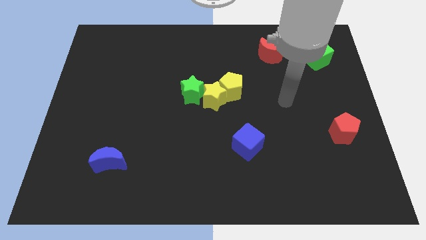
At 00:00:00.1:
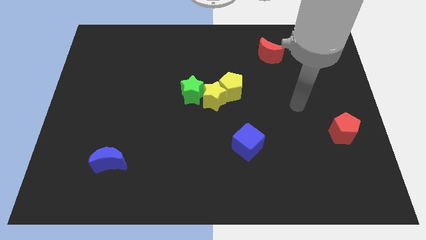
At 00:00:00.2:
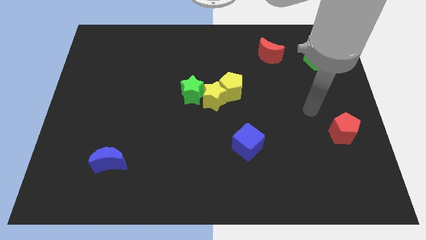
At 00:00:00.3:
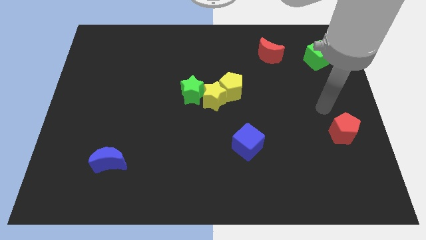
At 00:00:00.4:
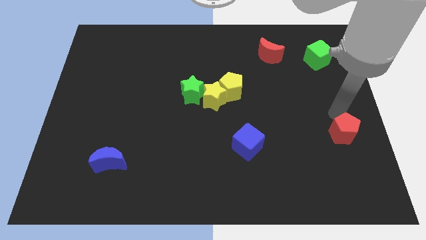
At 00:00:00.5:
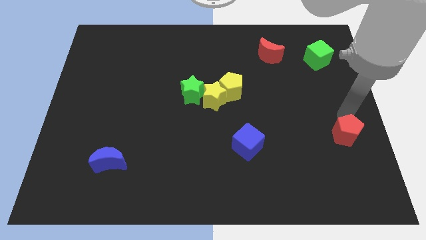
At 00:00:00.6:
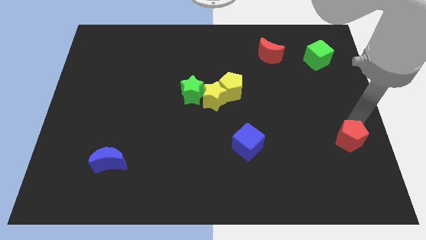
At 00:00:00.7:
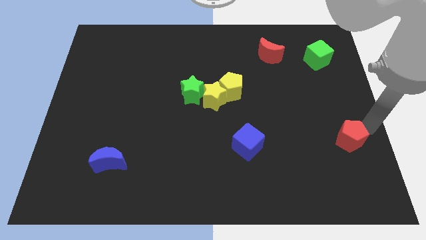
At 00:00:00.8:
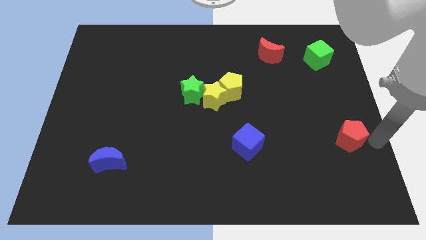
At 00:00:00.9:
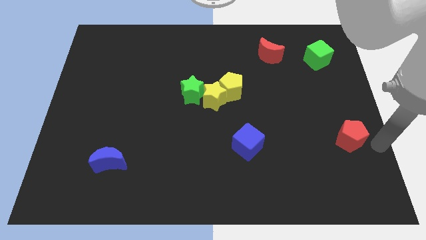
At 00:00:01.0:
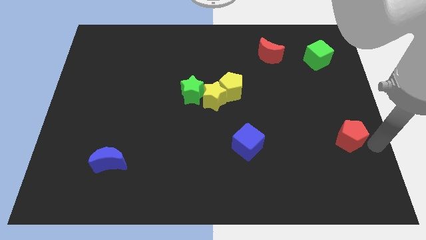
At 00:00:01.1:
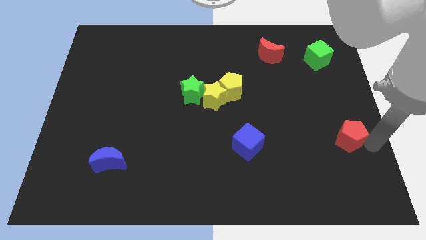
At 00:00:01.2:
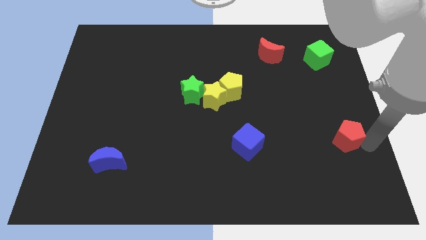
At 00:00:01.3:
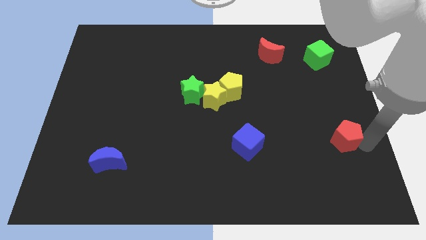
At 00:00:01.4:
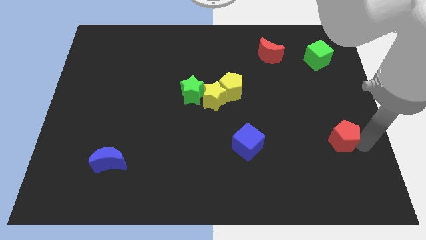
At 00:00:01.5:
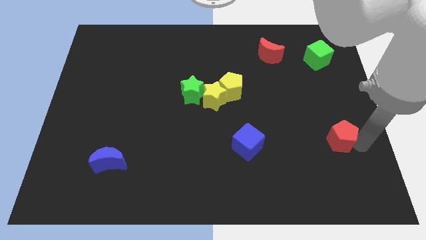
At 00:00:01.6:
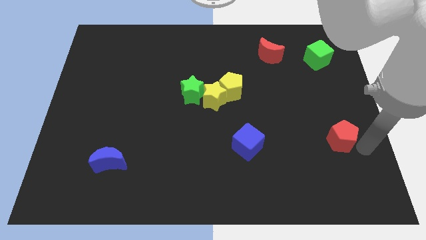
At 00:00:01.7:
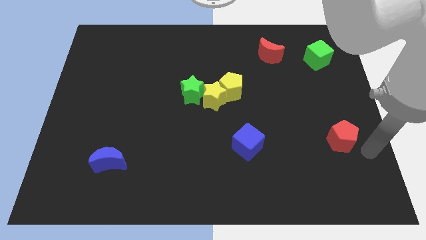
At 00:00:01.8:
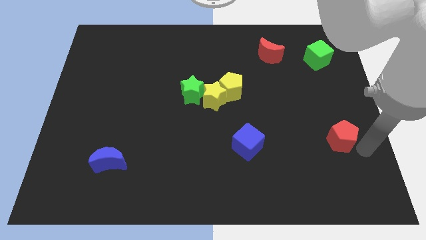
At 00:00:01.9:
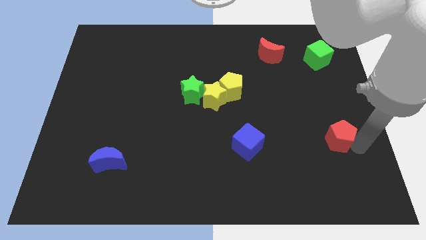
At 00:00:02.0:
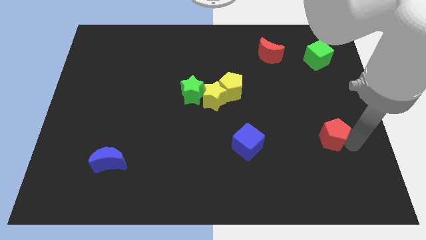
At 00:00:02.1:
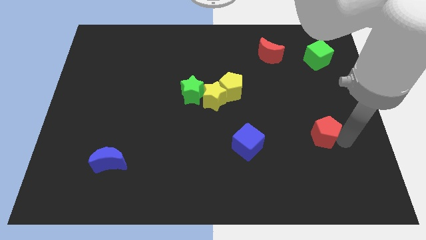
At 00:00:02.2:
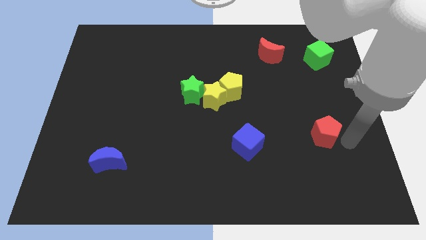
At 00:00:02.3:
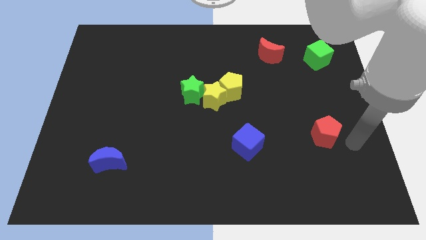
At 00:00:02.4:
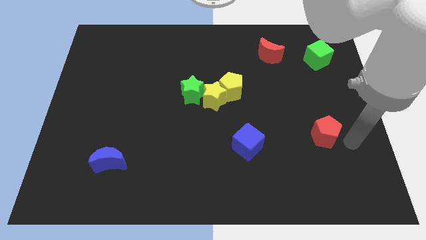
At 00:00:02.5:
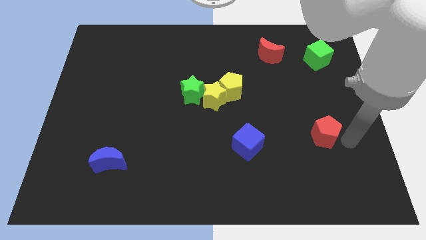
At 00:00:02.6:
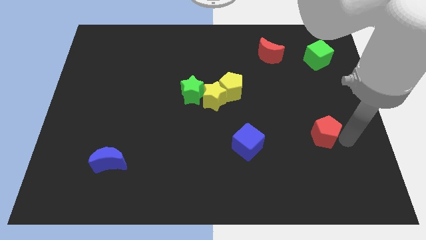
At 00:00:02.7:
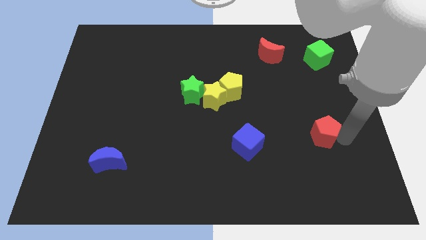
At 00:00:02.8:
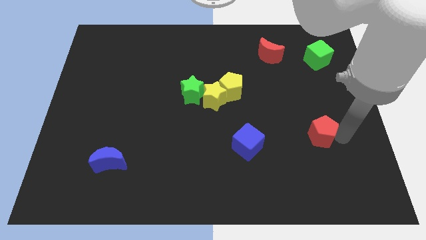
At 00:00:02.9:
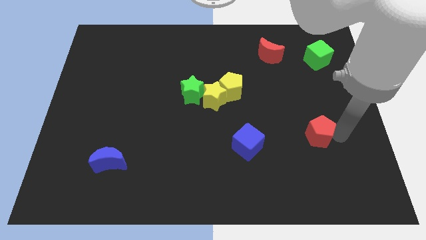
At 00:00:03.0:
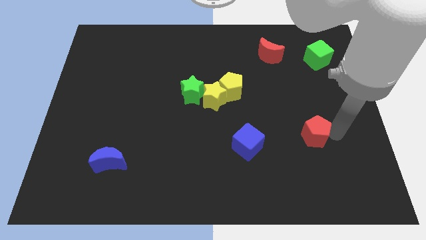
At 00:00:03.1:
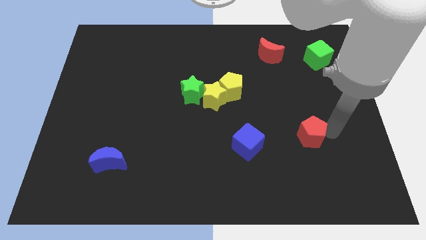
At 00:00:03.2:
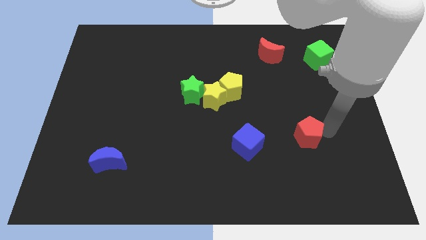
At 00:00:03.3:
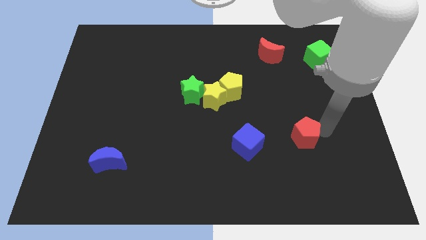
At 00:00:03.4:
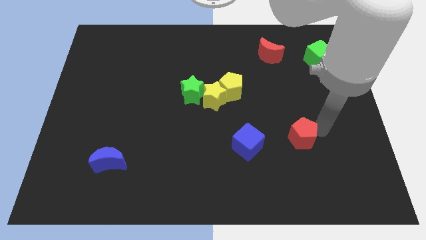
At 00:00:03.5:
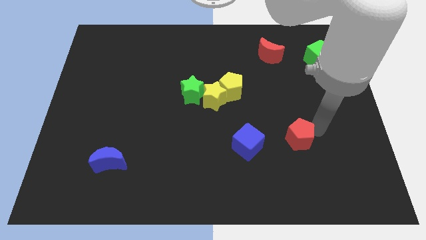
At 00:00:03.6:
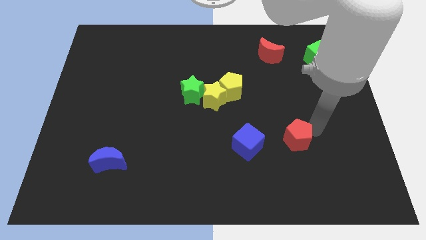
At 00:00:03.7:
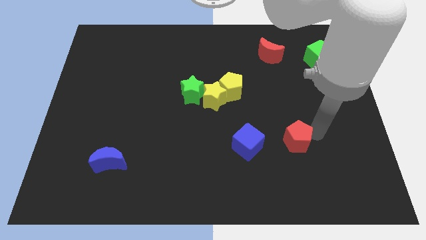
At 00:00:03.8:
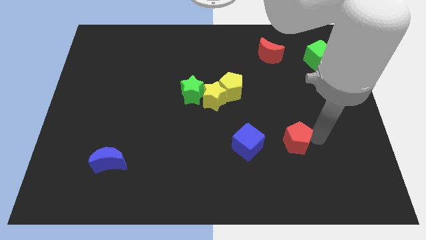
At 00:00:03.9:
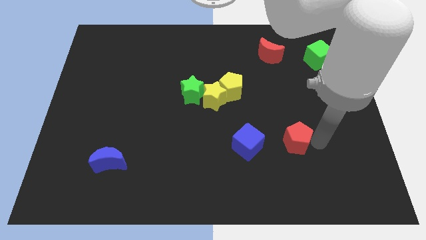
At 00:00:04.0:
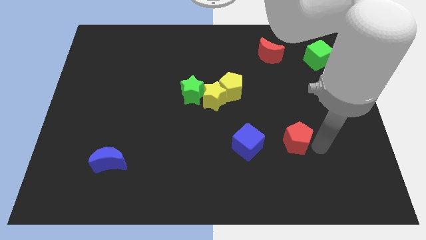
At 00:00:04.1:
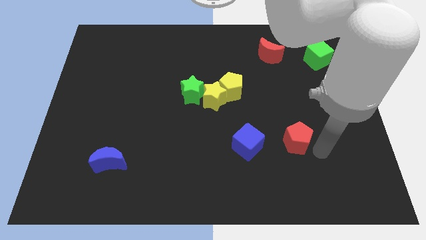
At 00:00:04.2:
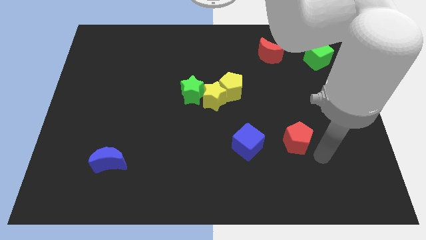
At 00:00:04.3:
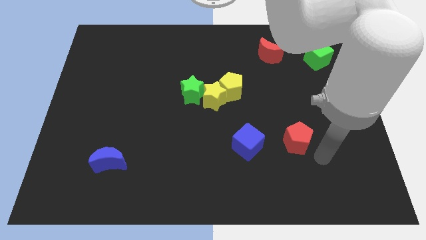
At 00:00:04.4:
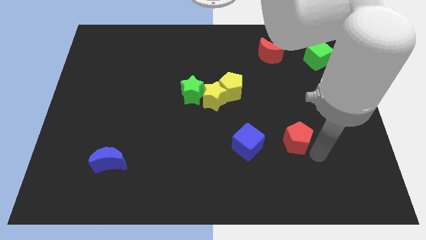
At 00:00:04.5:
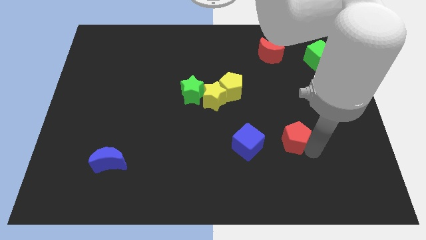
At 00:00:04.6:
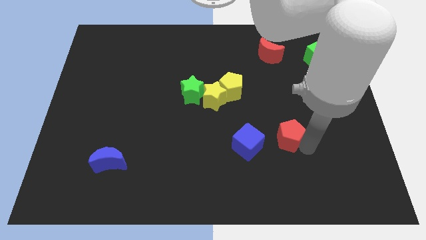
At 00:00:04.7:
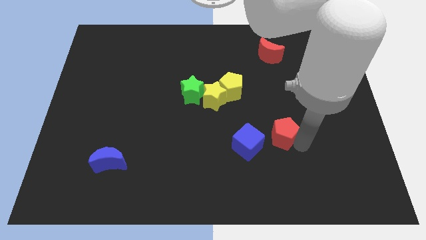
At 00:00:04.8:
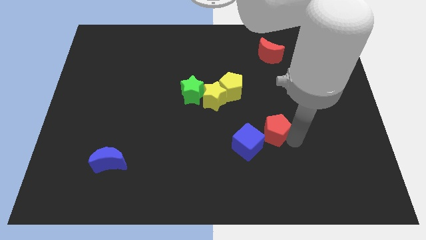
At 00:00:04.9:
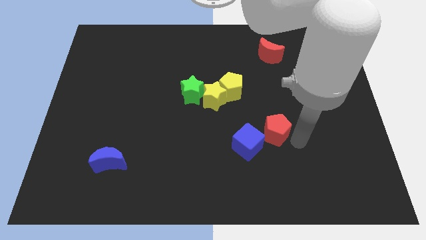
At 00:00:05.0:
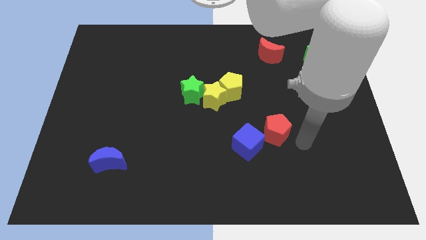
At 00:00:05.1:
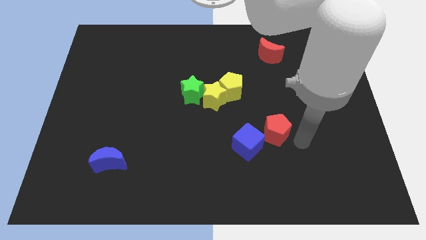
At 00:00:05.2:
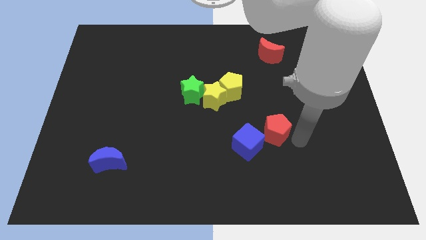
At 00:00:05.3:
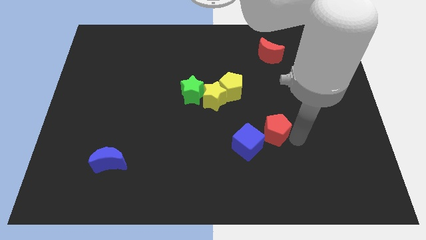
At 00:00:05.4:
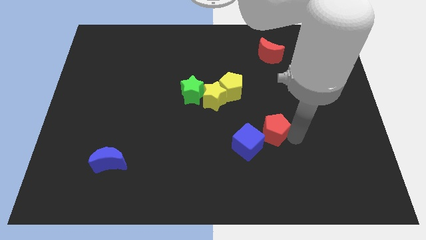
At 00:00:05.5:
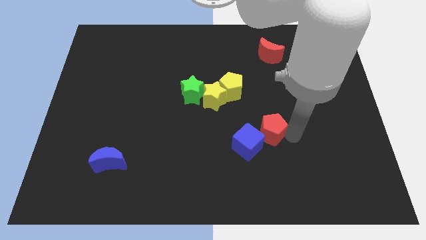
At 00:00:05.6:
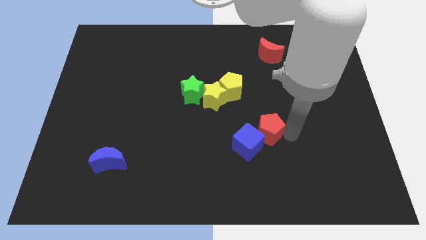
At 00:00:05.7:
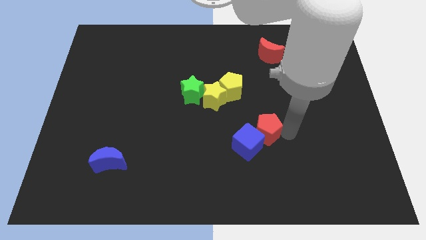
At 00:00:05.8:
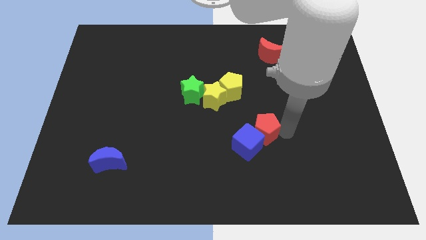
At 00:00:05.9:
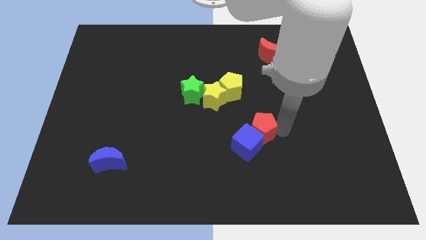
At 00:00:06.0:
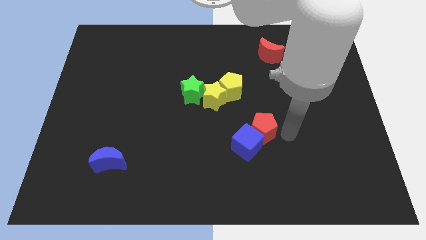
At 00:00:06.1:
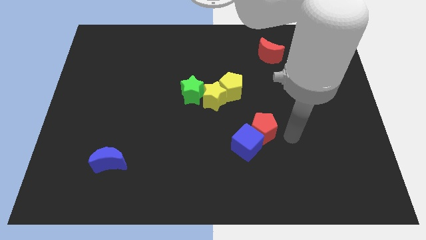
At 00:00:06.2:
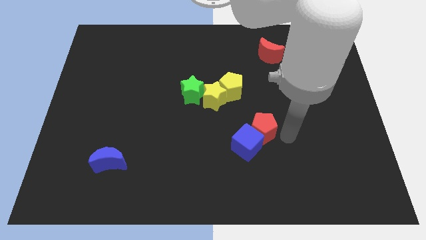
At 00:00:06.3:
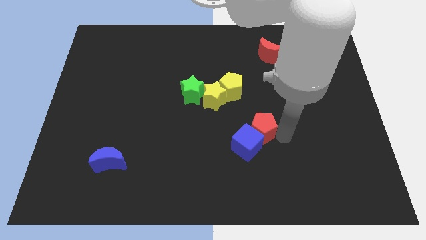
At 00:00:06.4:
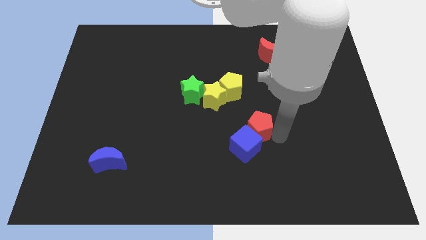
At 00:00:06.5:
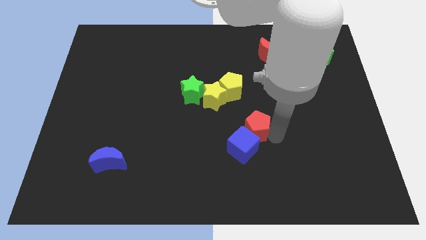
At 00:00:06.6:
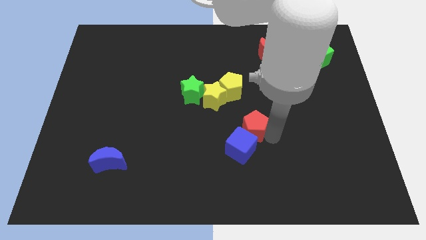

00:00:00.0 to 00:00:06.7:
move the red pentagon left

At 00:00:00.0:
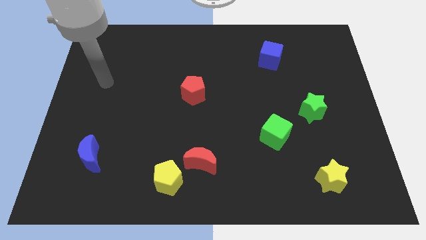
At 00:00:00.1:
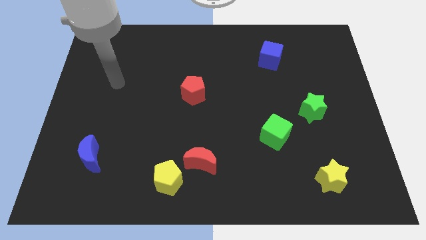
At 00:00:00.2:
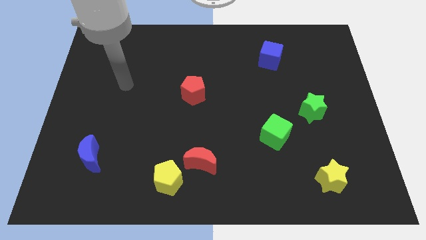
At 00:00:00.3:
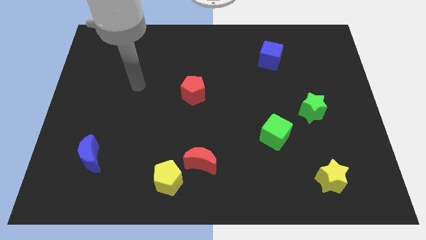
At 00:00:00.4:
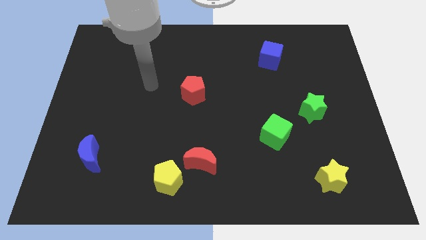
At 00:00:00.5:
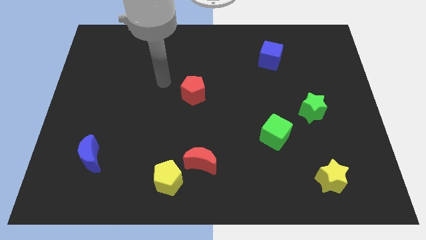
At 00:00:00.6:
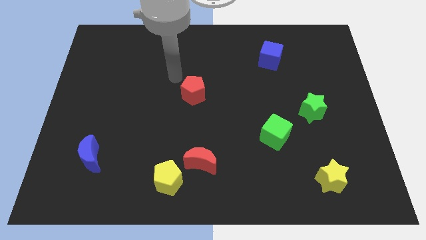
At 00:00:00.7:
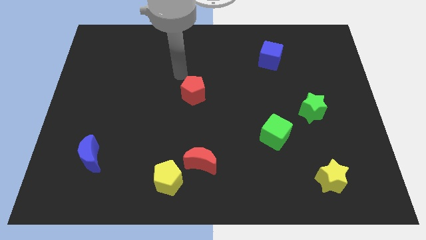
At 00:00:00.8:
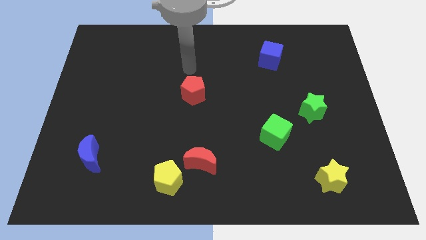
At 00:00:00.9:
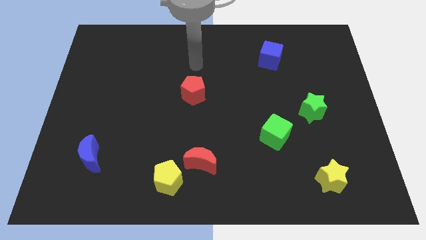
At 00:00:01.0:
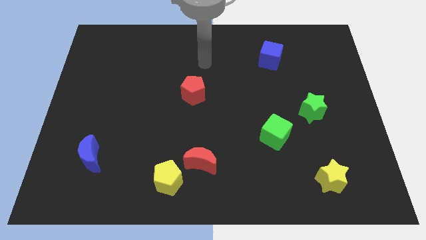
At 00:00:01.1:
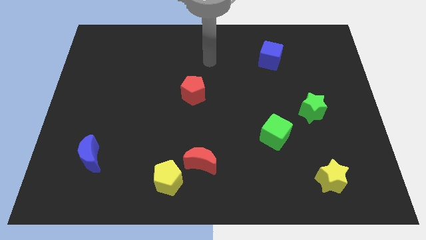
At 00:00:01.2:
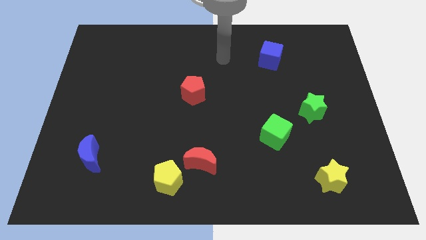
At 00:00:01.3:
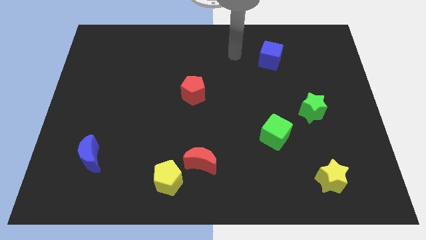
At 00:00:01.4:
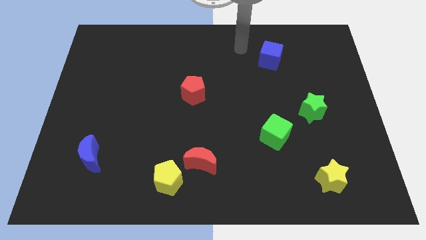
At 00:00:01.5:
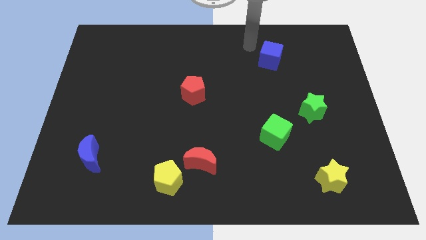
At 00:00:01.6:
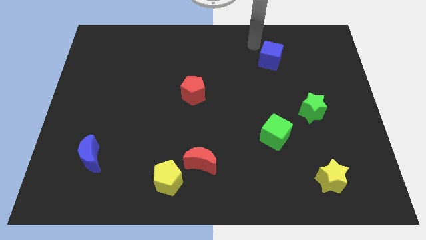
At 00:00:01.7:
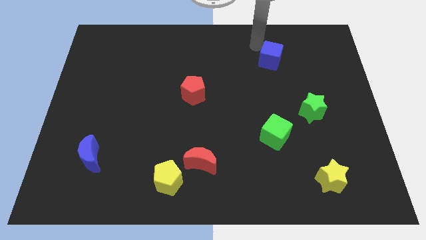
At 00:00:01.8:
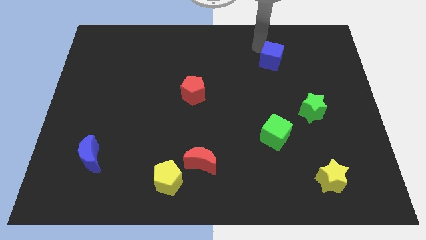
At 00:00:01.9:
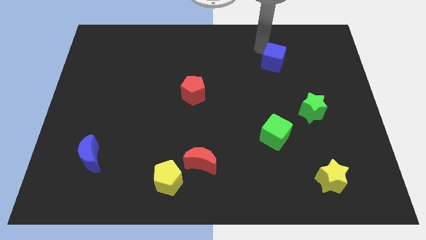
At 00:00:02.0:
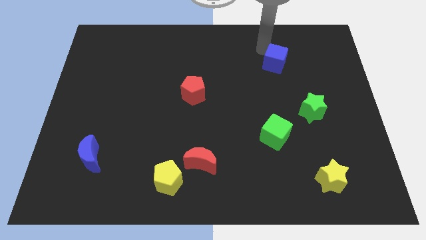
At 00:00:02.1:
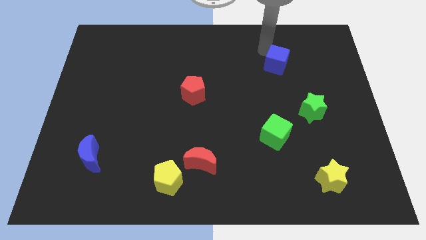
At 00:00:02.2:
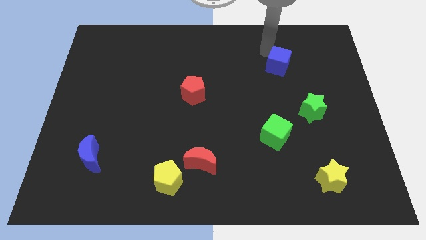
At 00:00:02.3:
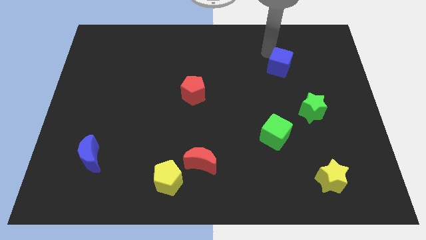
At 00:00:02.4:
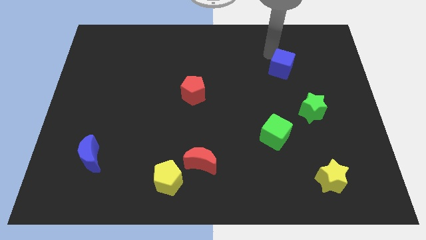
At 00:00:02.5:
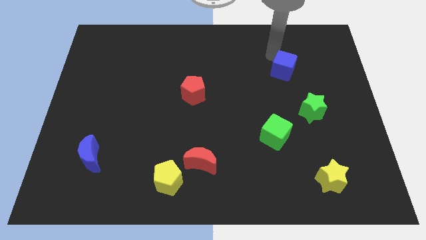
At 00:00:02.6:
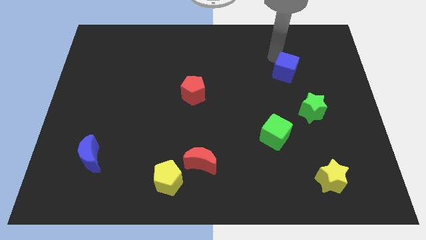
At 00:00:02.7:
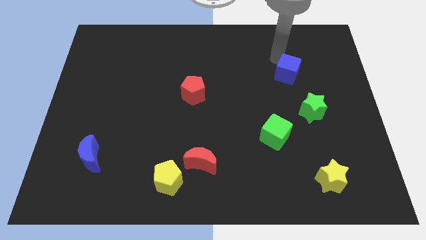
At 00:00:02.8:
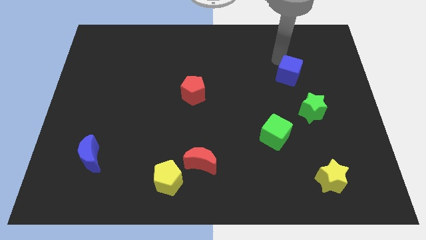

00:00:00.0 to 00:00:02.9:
move the blue cube down and right diagonally slightly
